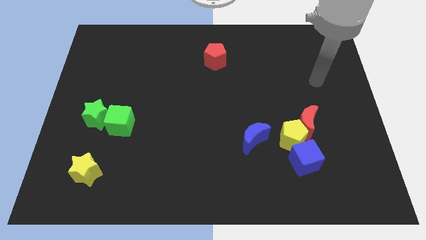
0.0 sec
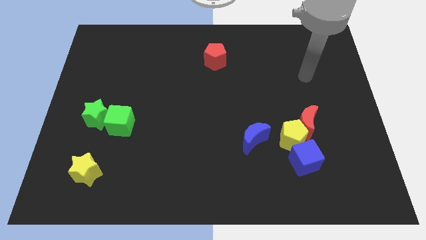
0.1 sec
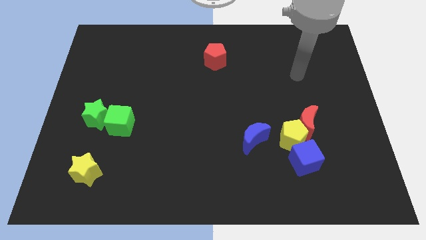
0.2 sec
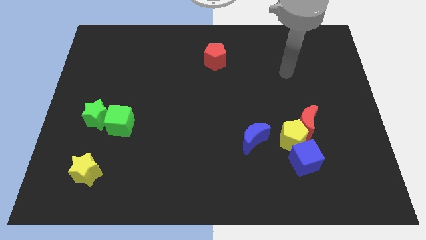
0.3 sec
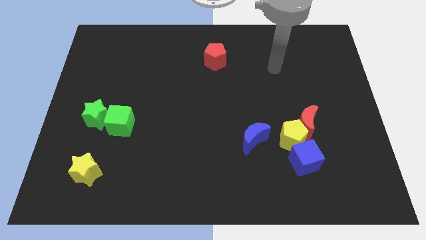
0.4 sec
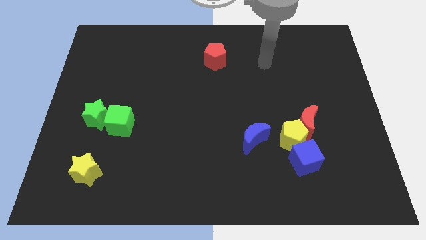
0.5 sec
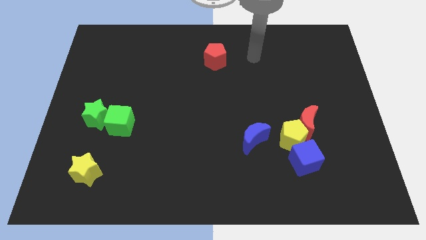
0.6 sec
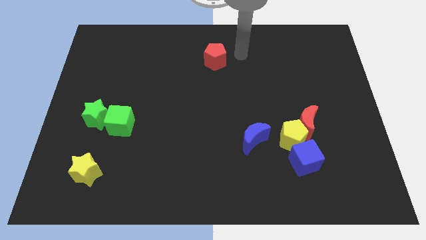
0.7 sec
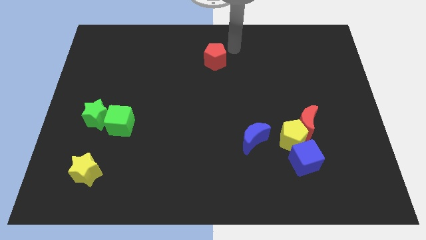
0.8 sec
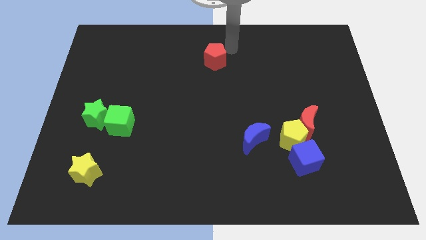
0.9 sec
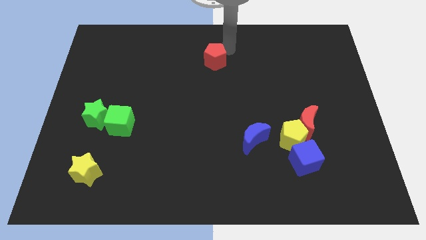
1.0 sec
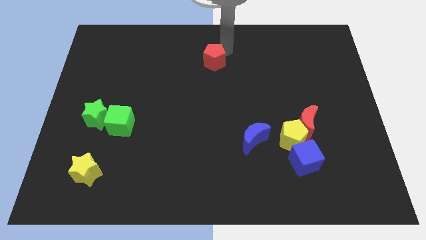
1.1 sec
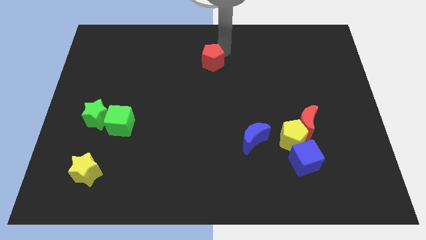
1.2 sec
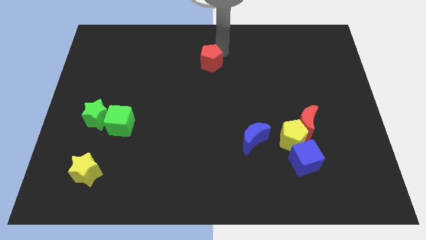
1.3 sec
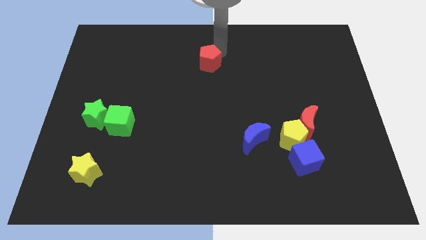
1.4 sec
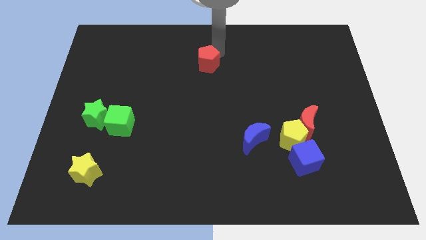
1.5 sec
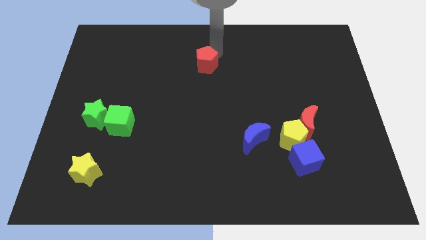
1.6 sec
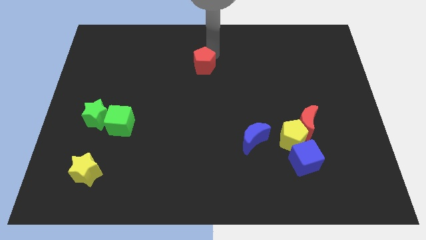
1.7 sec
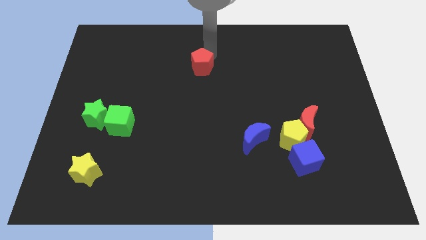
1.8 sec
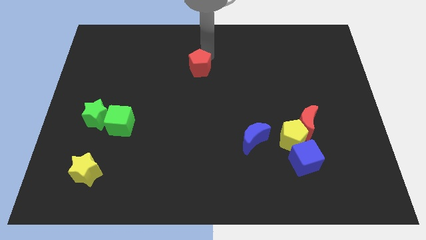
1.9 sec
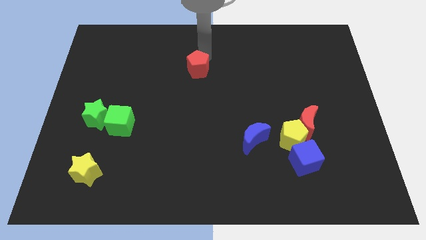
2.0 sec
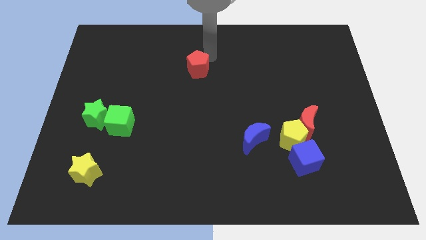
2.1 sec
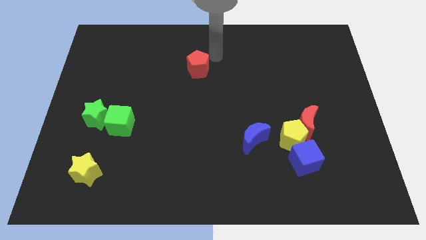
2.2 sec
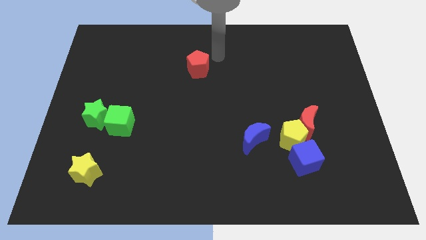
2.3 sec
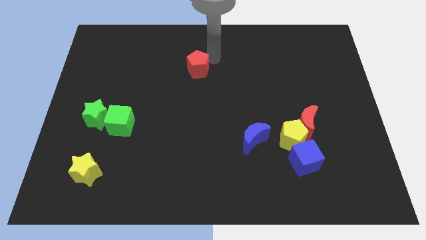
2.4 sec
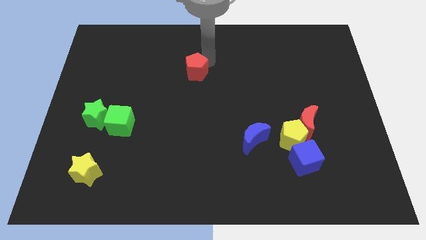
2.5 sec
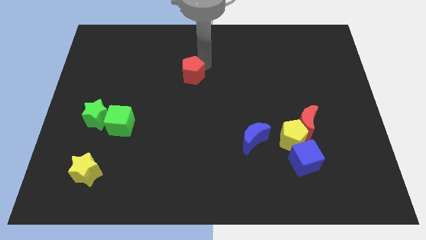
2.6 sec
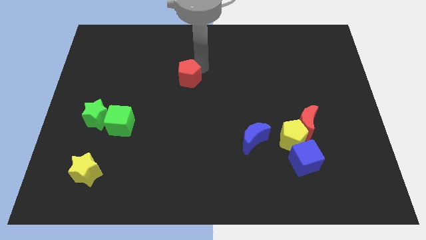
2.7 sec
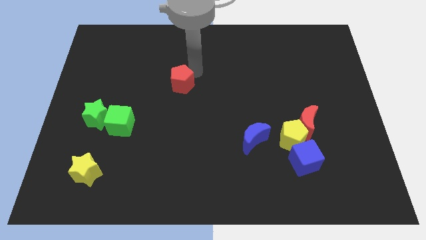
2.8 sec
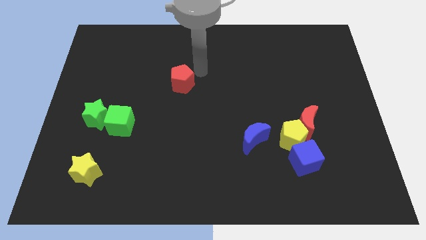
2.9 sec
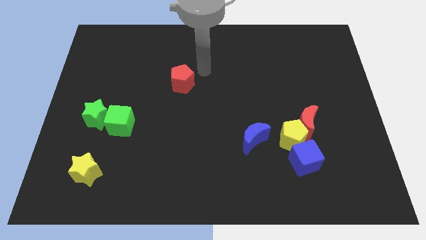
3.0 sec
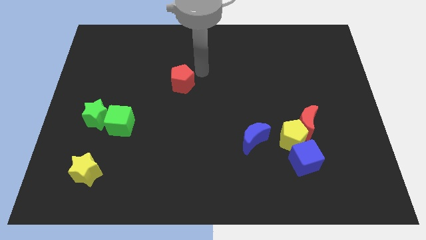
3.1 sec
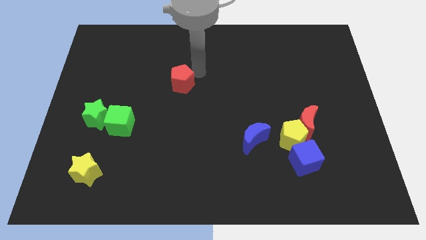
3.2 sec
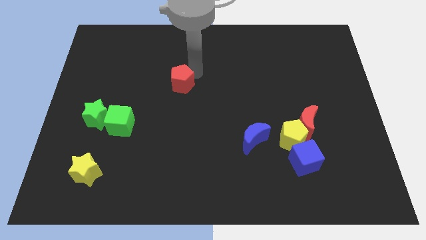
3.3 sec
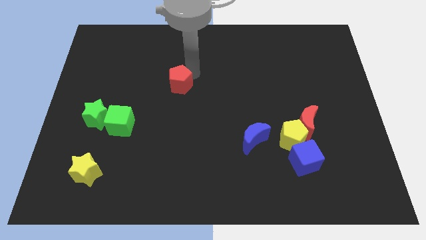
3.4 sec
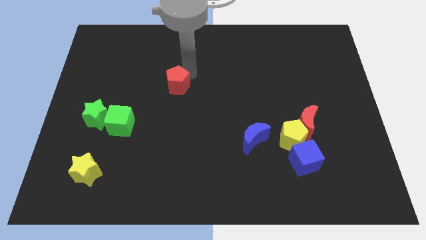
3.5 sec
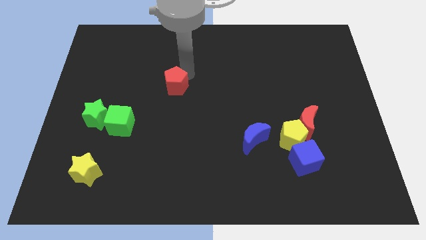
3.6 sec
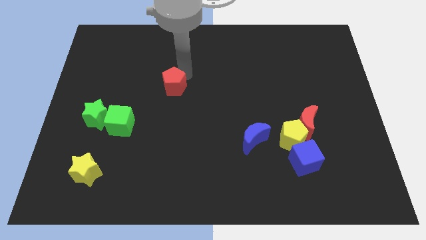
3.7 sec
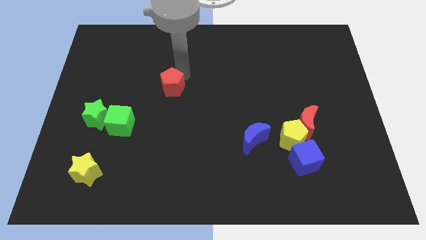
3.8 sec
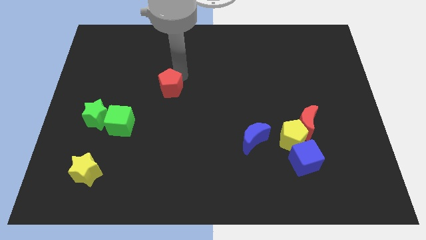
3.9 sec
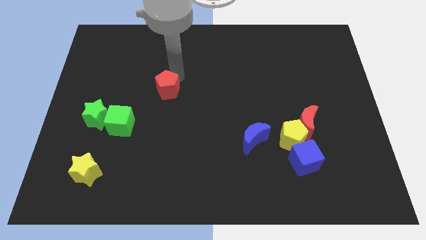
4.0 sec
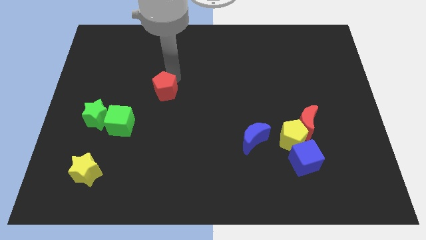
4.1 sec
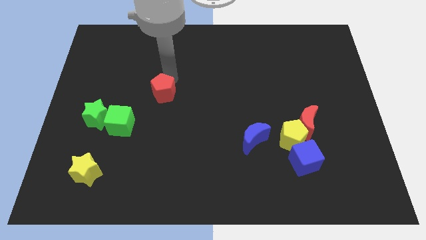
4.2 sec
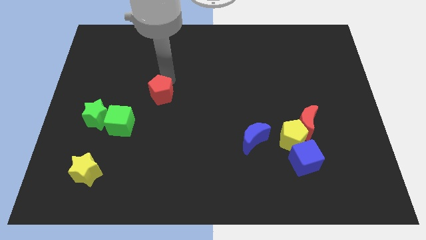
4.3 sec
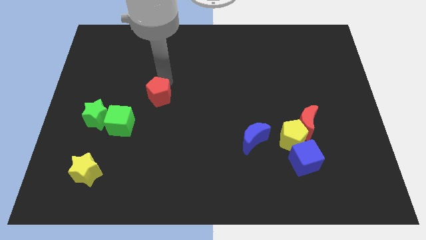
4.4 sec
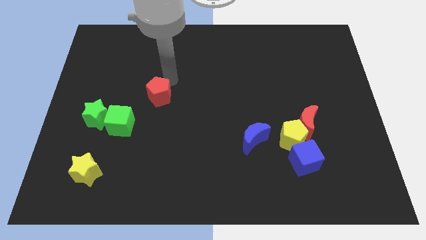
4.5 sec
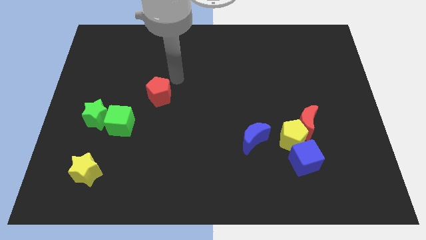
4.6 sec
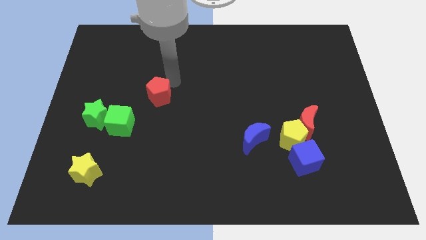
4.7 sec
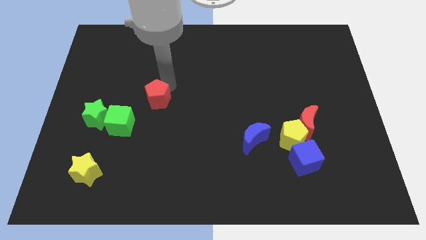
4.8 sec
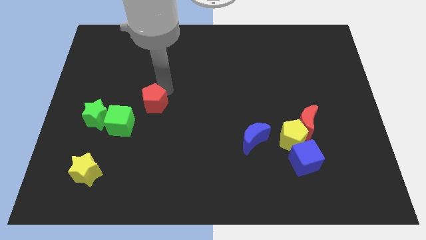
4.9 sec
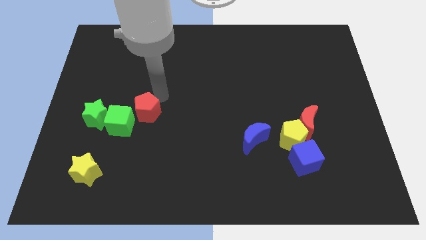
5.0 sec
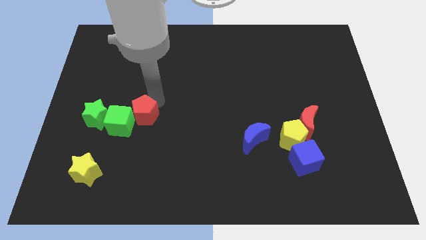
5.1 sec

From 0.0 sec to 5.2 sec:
slide the red pentagon next to the green cube

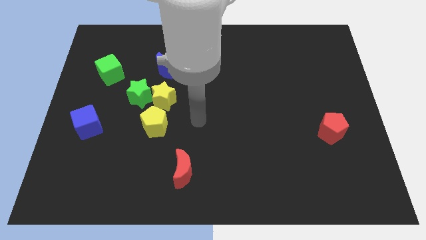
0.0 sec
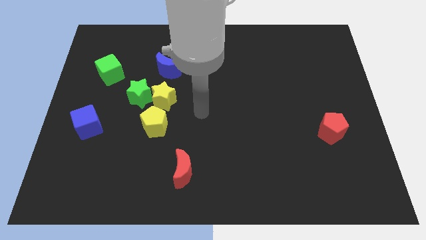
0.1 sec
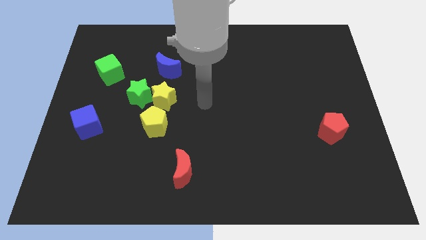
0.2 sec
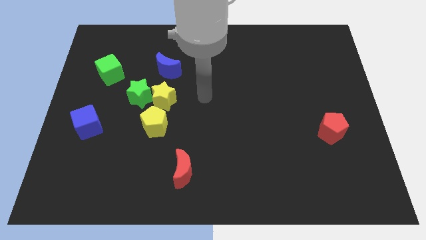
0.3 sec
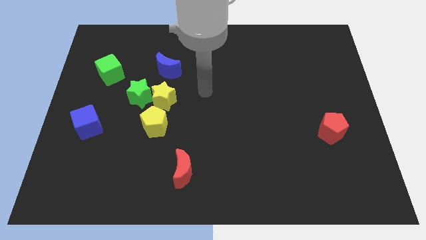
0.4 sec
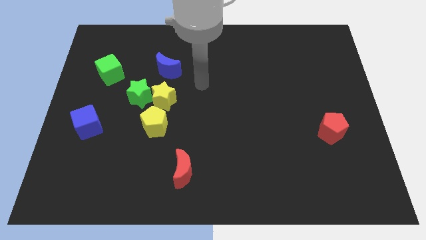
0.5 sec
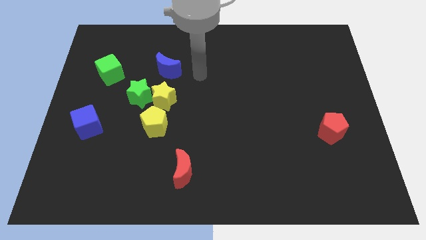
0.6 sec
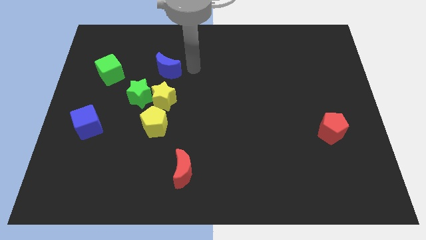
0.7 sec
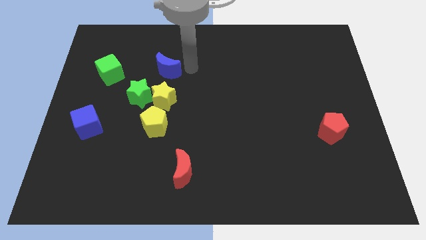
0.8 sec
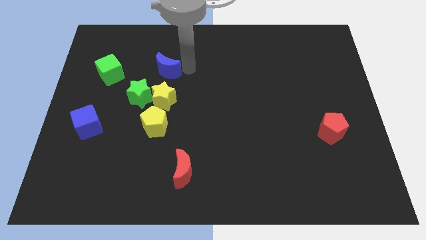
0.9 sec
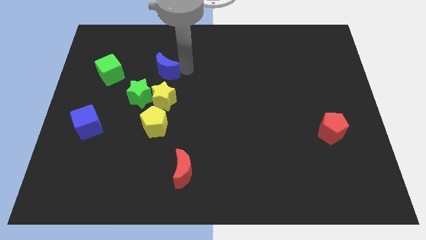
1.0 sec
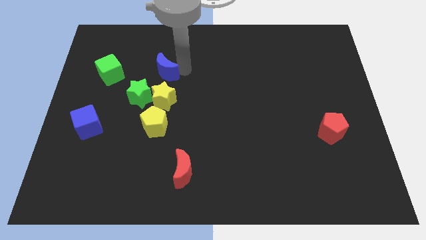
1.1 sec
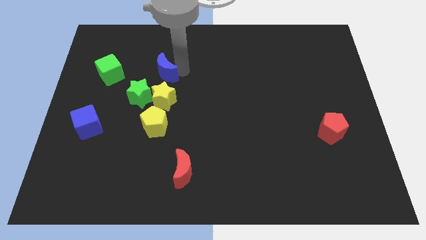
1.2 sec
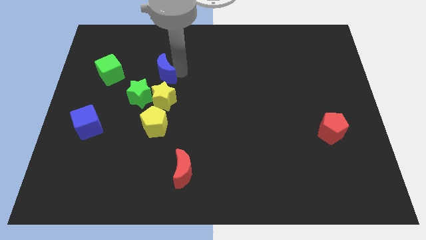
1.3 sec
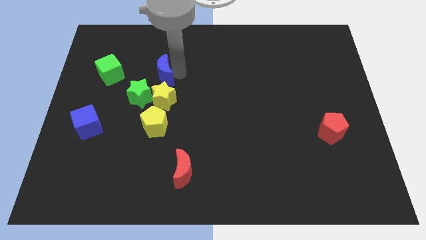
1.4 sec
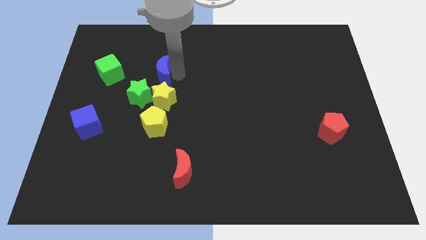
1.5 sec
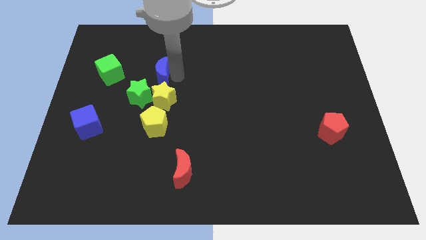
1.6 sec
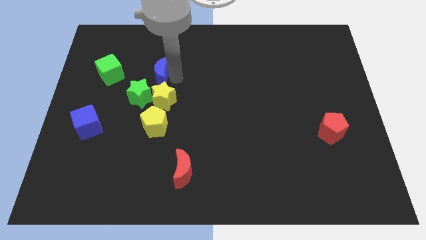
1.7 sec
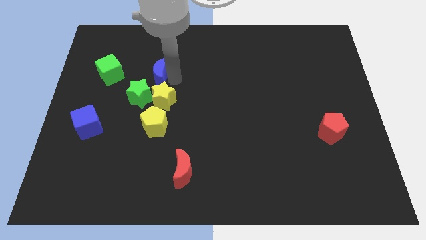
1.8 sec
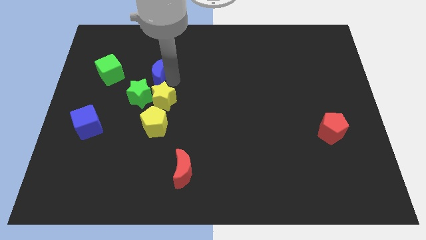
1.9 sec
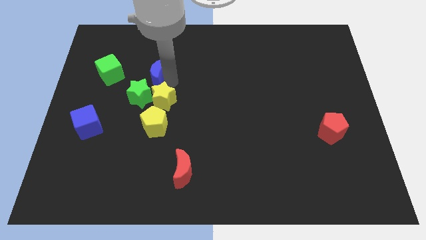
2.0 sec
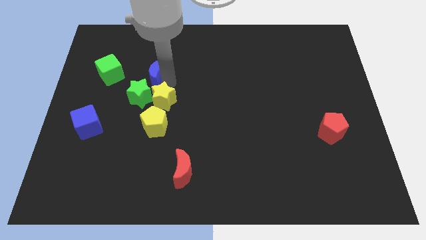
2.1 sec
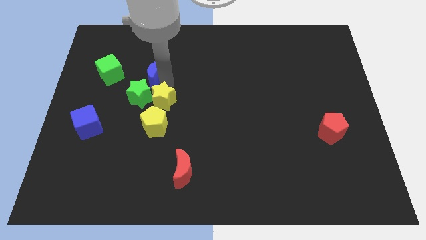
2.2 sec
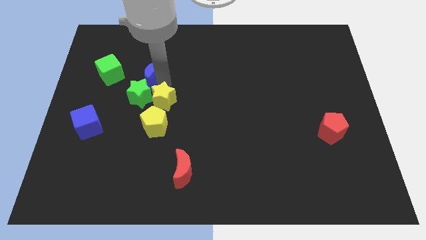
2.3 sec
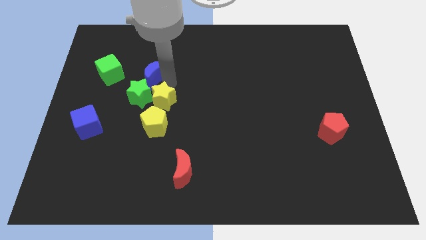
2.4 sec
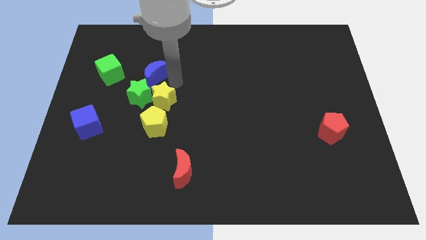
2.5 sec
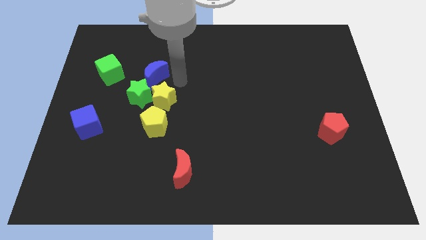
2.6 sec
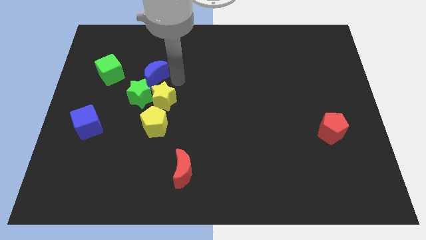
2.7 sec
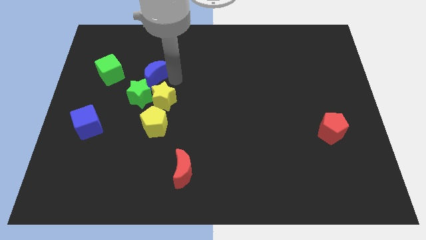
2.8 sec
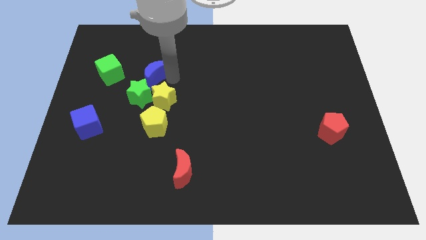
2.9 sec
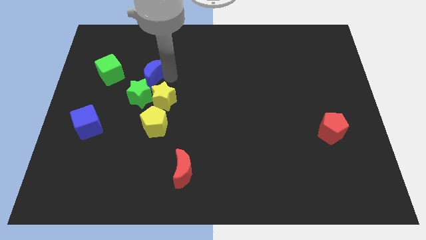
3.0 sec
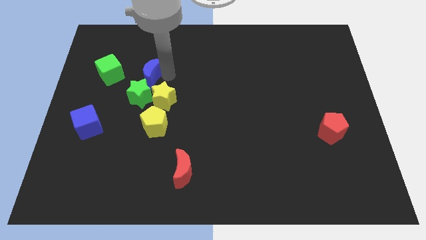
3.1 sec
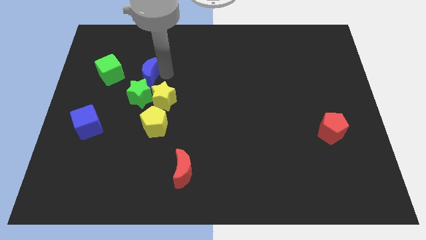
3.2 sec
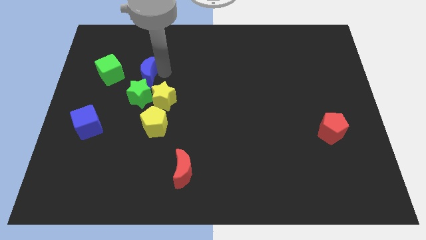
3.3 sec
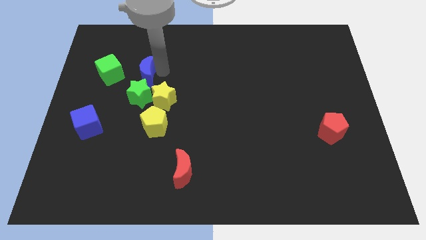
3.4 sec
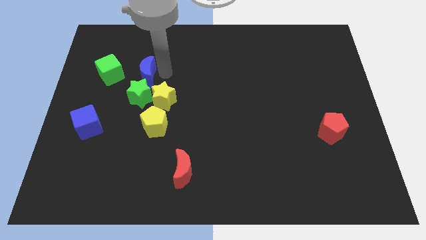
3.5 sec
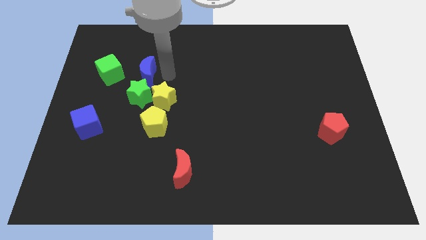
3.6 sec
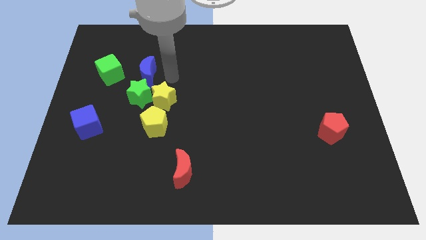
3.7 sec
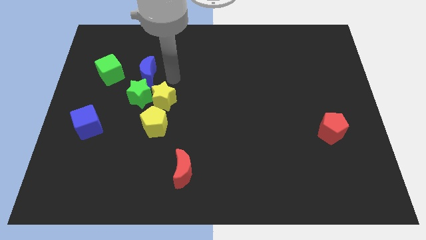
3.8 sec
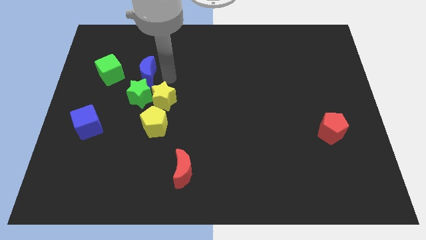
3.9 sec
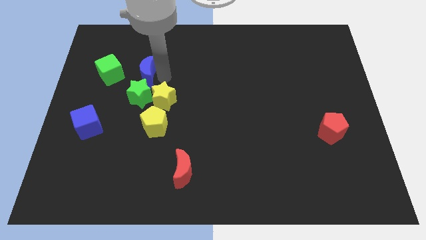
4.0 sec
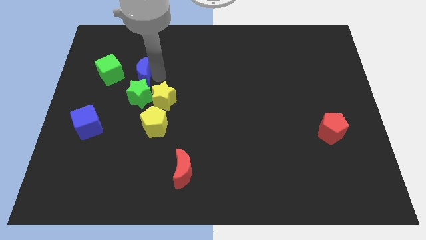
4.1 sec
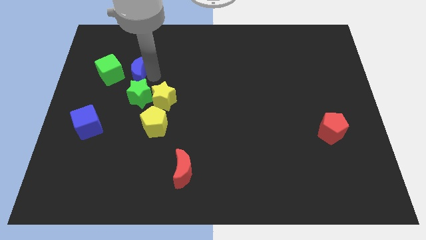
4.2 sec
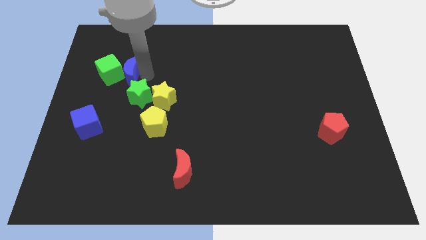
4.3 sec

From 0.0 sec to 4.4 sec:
slide the blue moon to the green cube
